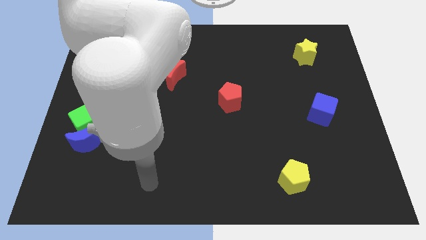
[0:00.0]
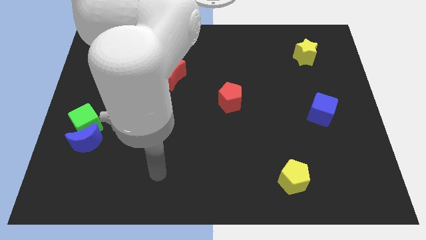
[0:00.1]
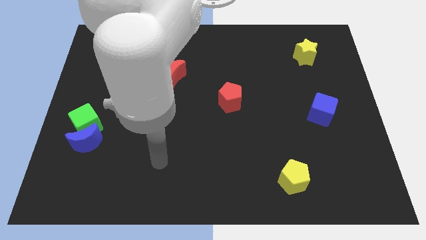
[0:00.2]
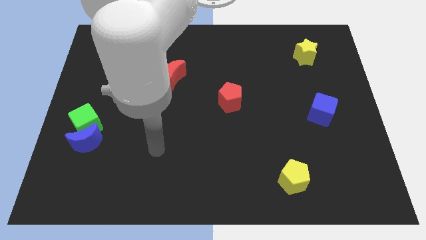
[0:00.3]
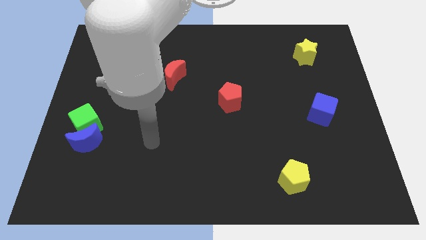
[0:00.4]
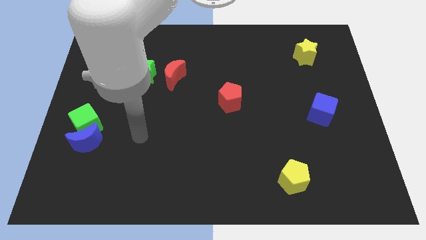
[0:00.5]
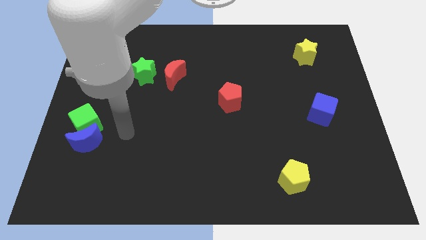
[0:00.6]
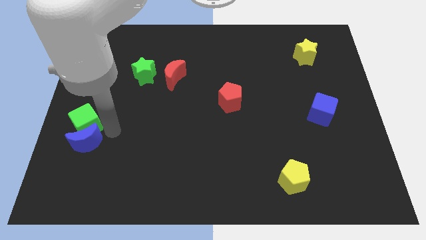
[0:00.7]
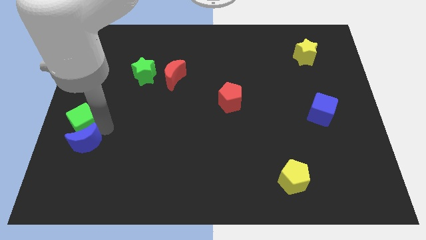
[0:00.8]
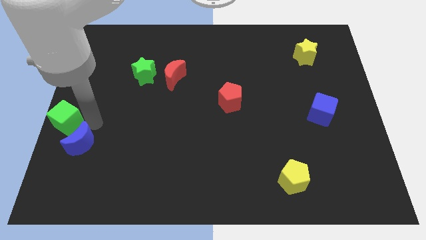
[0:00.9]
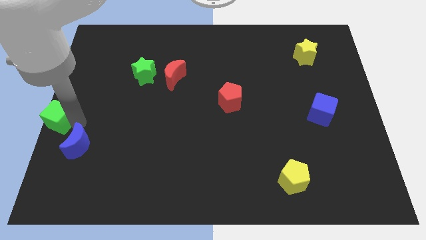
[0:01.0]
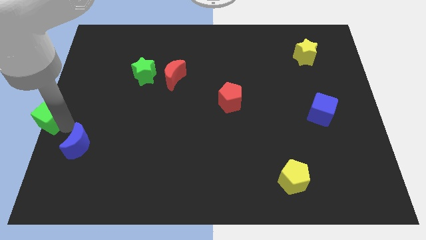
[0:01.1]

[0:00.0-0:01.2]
move the blue moon away from the green cube

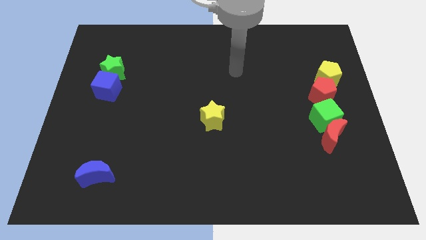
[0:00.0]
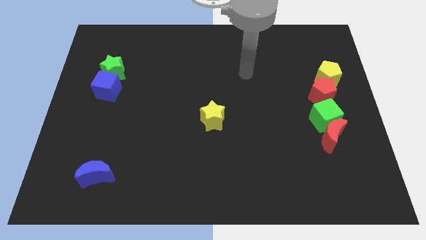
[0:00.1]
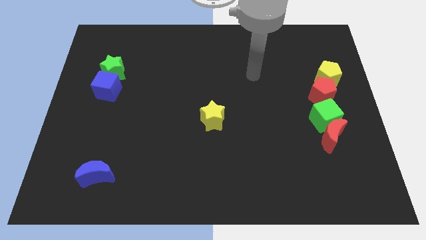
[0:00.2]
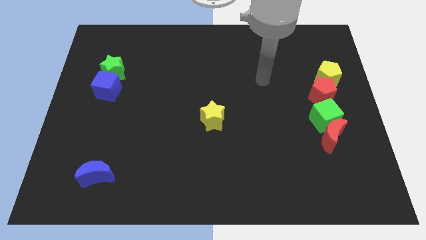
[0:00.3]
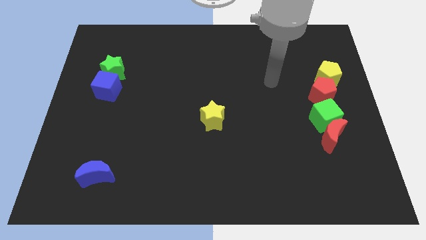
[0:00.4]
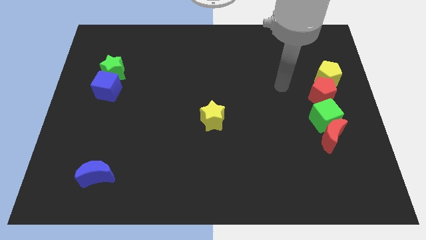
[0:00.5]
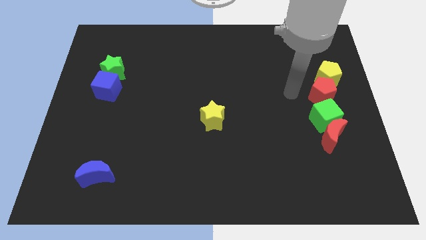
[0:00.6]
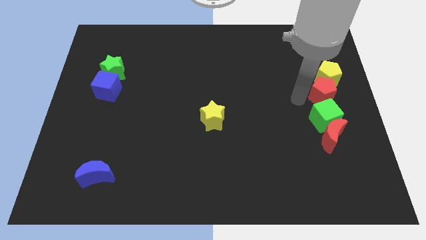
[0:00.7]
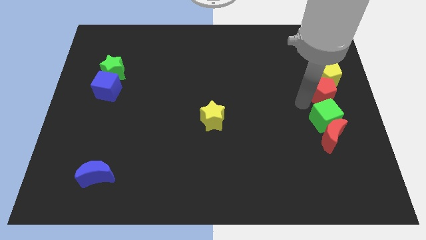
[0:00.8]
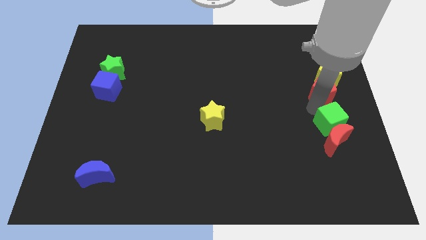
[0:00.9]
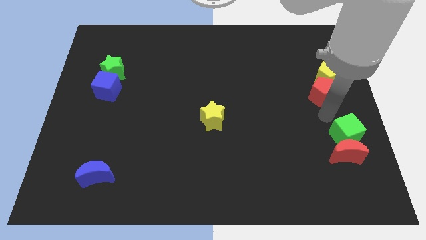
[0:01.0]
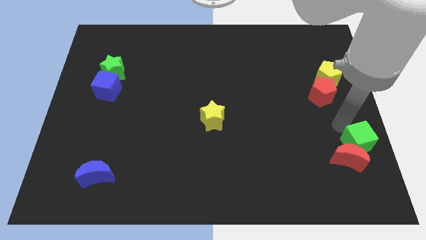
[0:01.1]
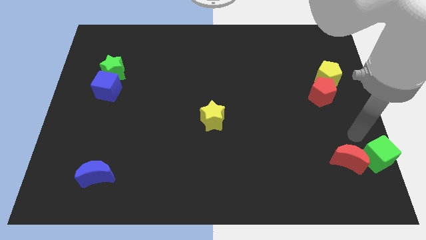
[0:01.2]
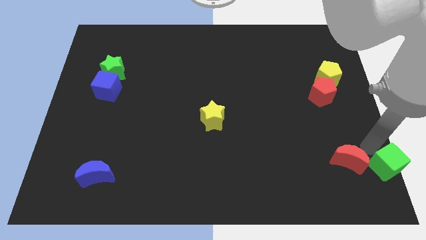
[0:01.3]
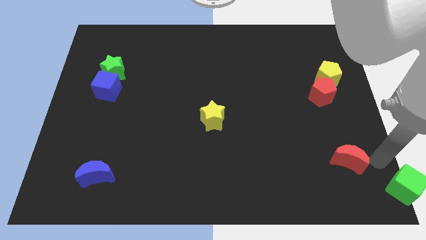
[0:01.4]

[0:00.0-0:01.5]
pull the red moon apart from the green cube

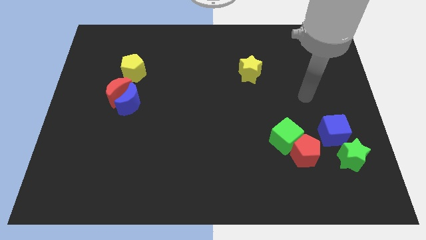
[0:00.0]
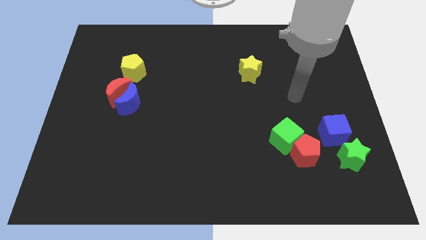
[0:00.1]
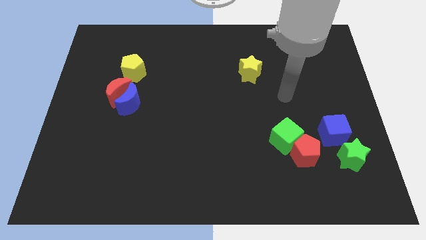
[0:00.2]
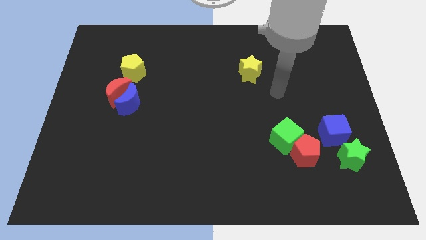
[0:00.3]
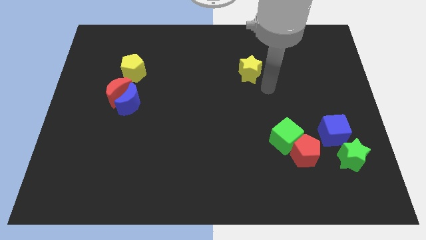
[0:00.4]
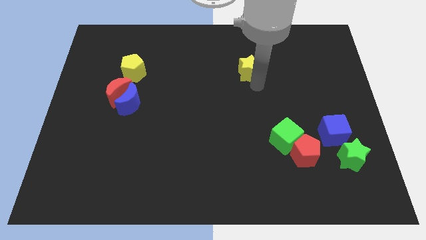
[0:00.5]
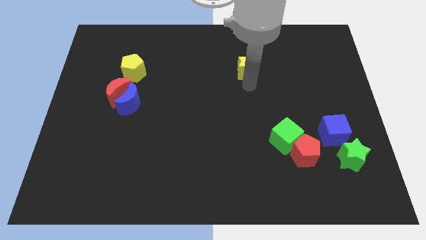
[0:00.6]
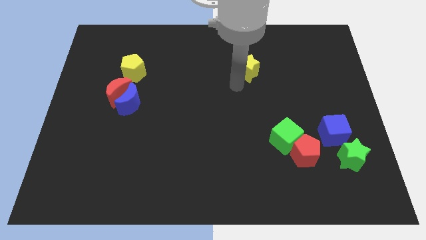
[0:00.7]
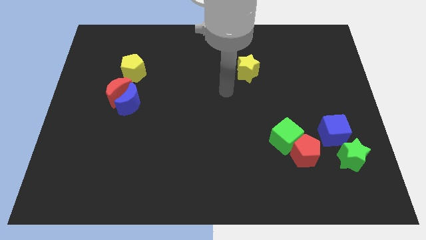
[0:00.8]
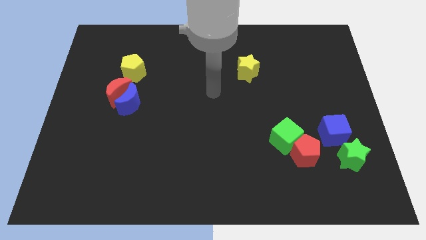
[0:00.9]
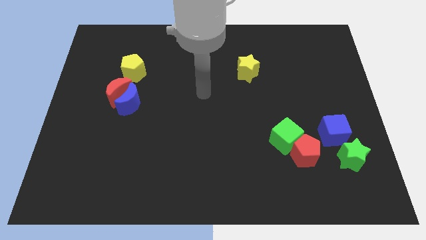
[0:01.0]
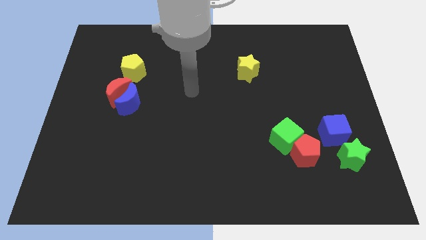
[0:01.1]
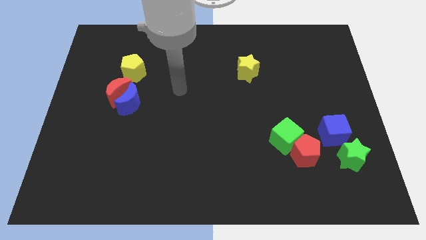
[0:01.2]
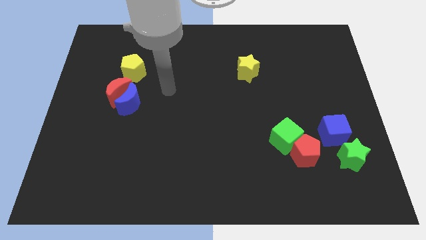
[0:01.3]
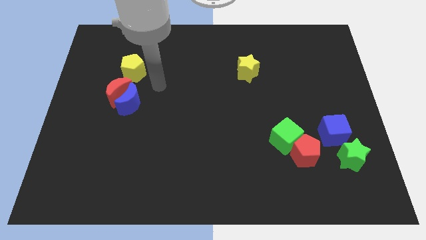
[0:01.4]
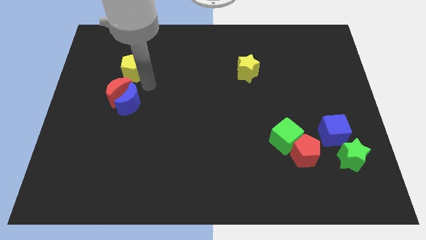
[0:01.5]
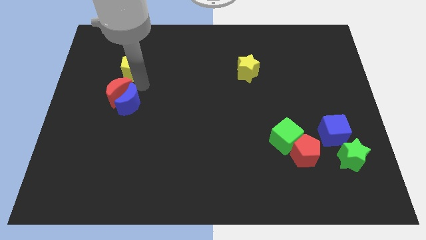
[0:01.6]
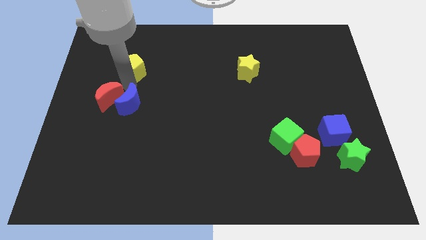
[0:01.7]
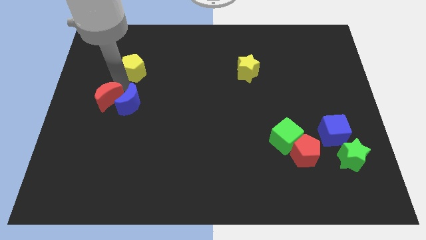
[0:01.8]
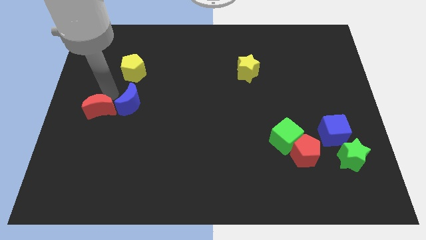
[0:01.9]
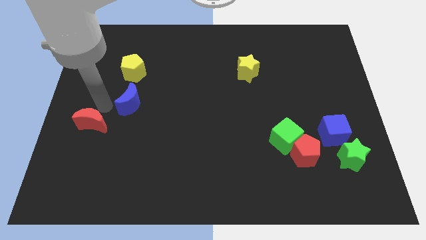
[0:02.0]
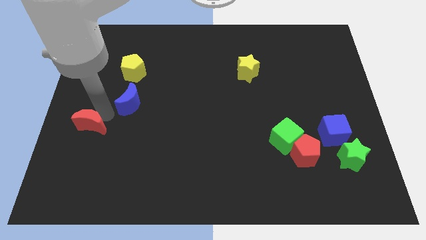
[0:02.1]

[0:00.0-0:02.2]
pull the blue moon apart from the red moon

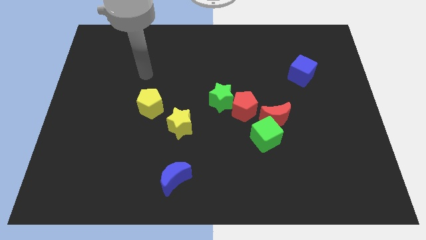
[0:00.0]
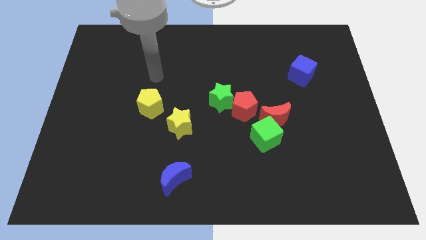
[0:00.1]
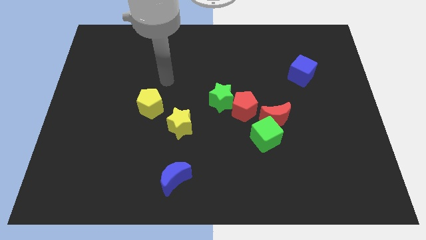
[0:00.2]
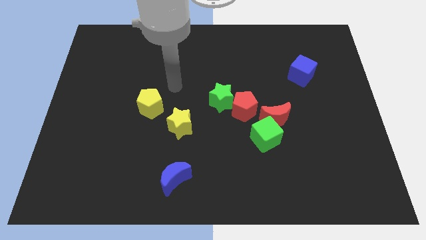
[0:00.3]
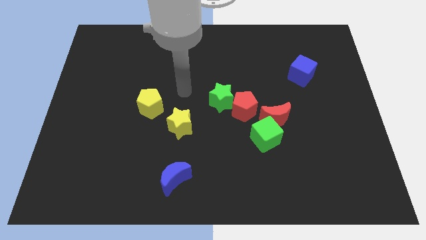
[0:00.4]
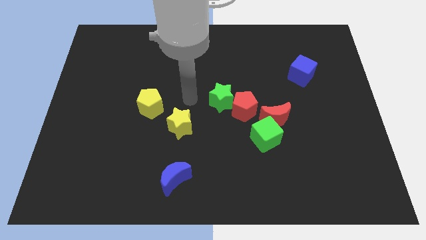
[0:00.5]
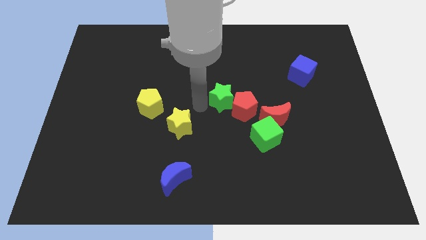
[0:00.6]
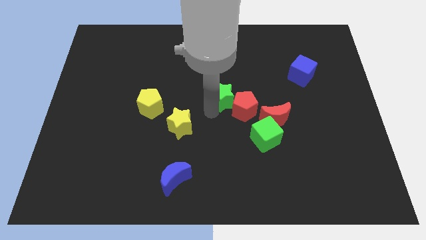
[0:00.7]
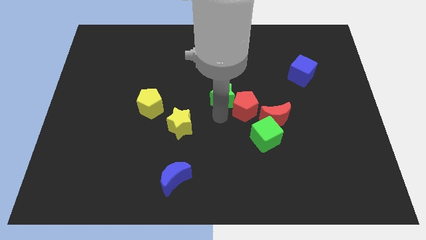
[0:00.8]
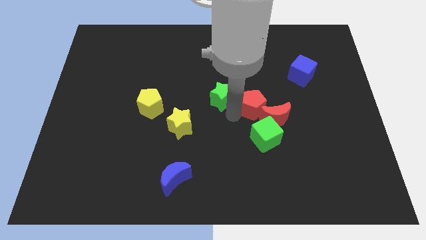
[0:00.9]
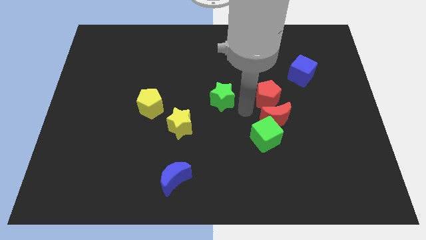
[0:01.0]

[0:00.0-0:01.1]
pull the green star apart from the red pentagon

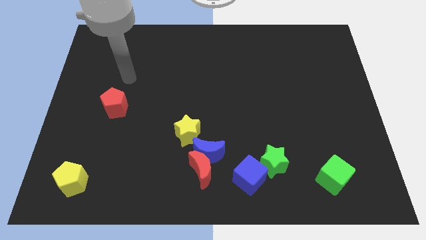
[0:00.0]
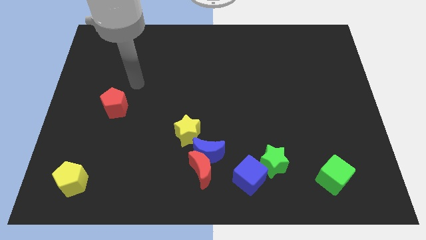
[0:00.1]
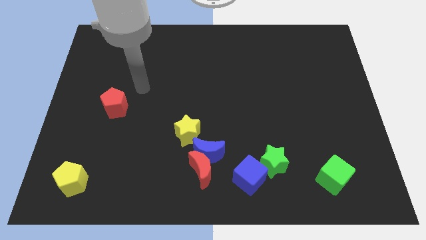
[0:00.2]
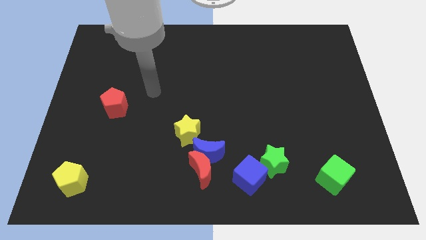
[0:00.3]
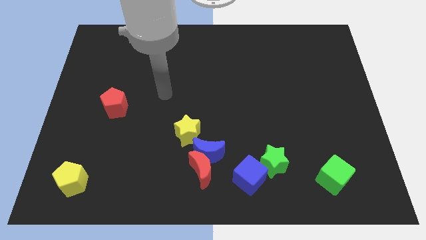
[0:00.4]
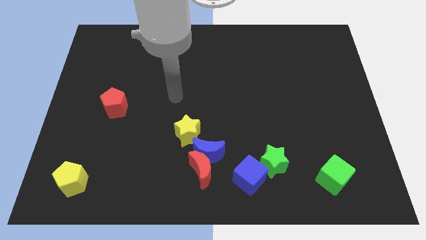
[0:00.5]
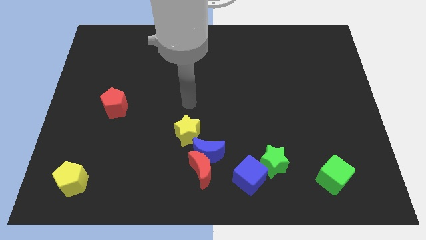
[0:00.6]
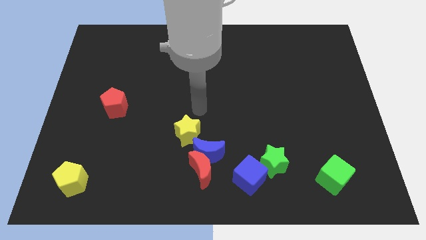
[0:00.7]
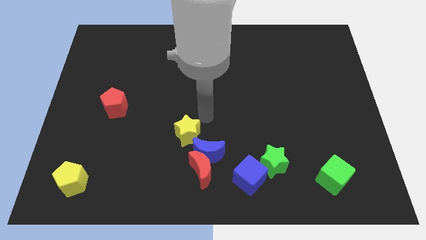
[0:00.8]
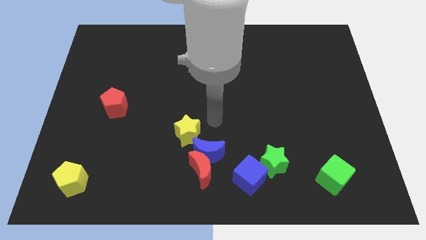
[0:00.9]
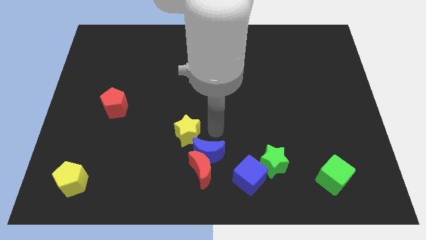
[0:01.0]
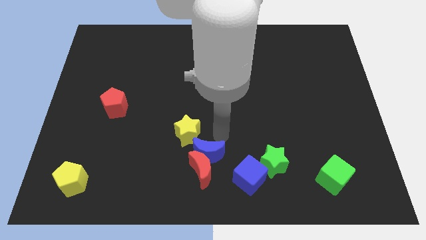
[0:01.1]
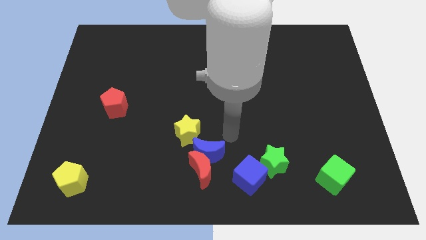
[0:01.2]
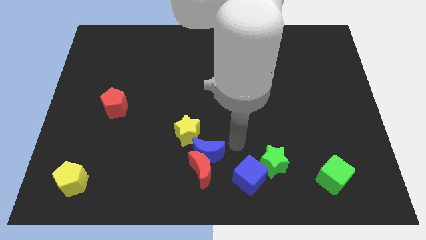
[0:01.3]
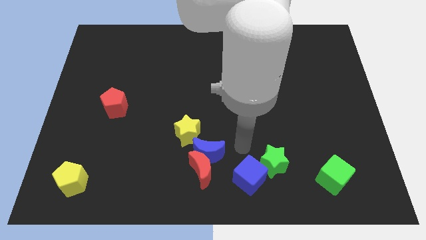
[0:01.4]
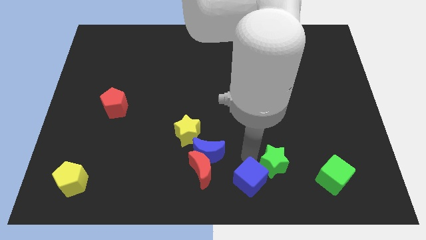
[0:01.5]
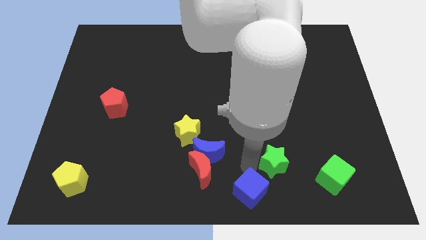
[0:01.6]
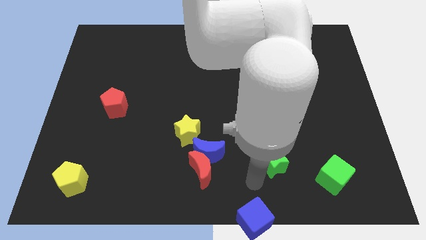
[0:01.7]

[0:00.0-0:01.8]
pull the green star apart from the blue cube

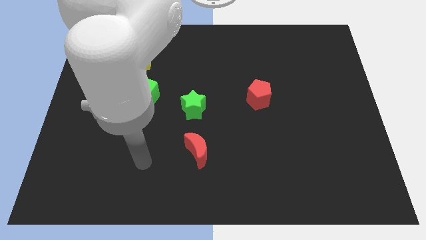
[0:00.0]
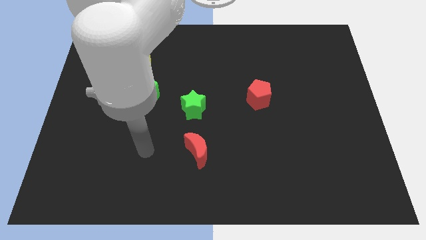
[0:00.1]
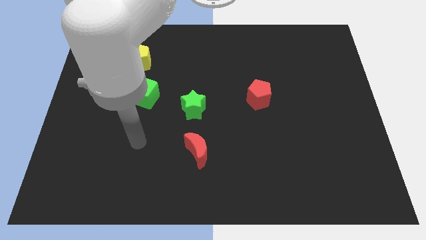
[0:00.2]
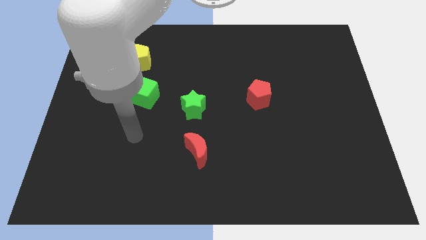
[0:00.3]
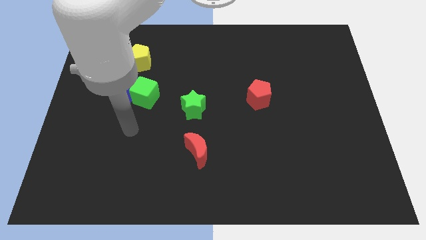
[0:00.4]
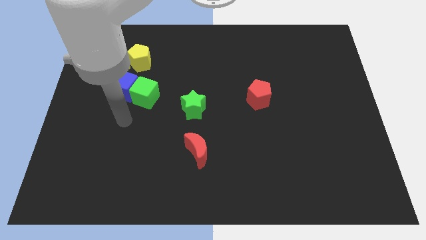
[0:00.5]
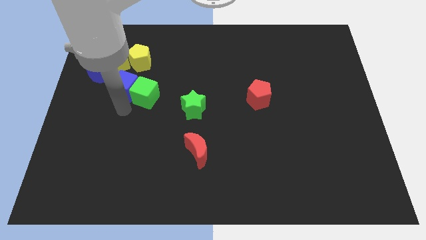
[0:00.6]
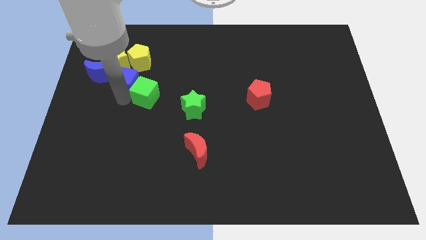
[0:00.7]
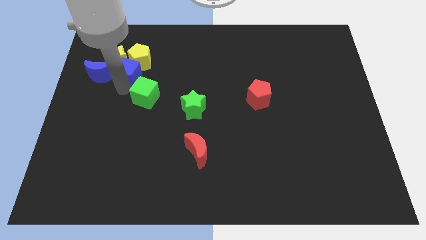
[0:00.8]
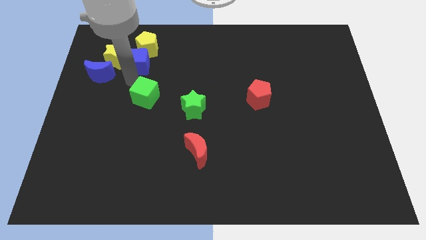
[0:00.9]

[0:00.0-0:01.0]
move the green cube away from the blue cube

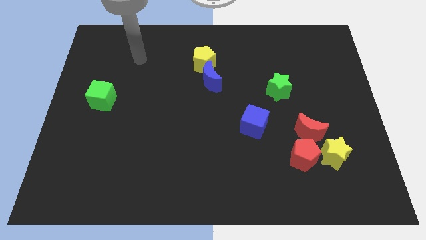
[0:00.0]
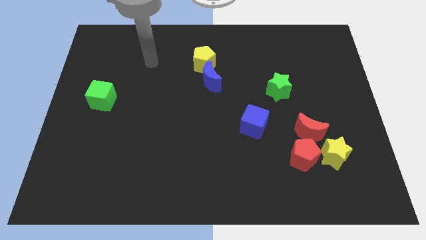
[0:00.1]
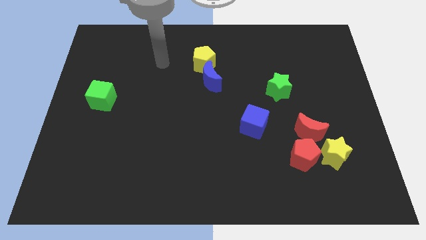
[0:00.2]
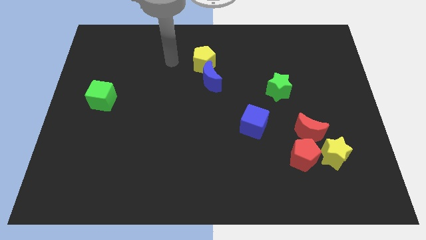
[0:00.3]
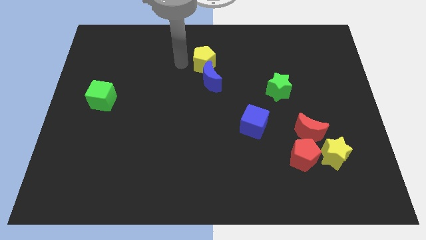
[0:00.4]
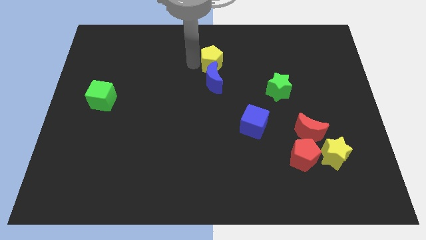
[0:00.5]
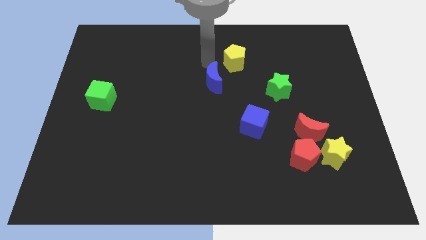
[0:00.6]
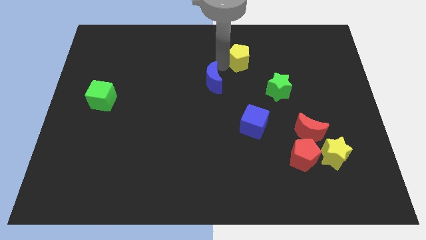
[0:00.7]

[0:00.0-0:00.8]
separate the blue moon from the yellow pentagon
